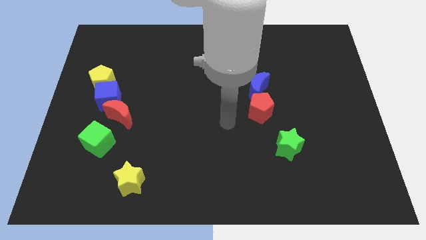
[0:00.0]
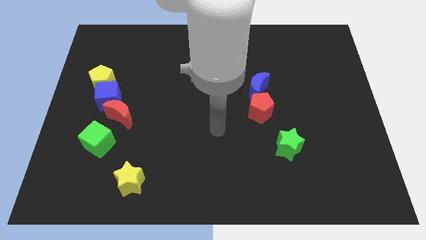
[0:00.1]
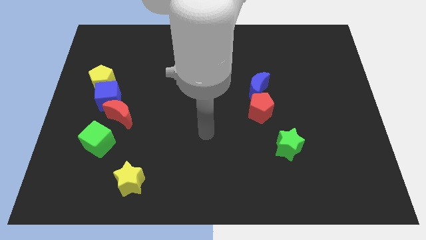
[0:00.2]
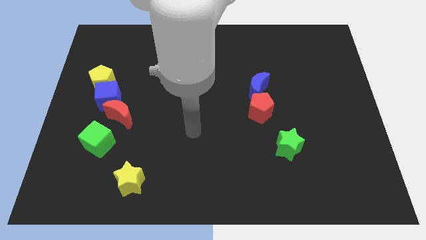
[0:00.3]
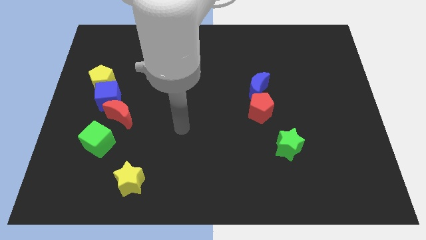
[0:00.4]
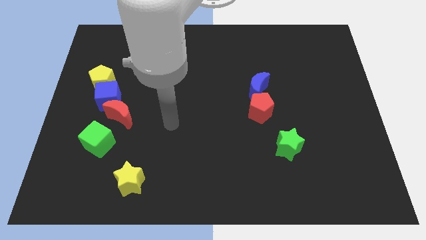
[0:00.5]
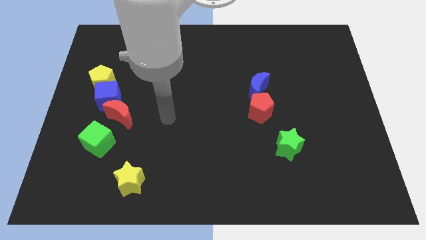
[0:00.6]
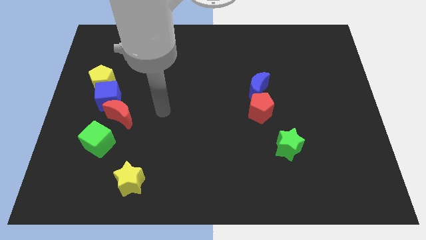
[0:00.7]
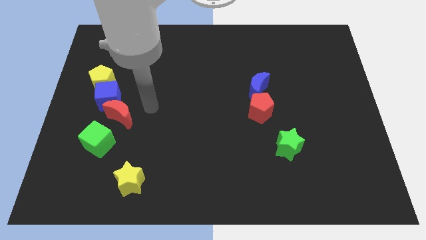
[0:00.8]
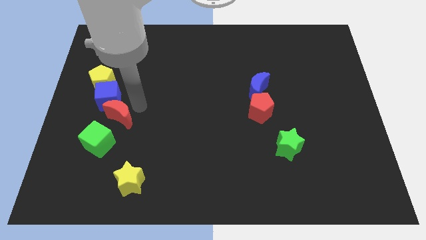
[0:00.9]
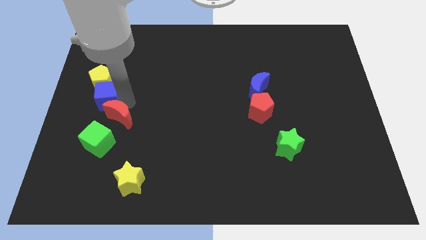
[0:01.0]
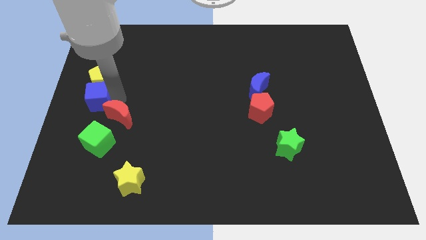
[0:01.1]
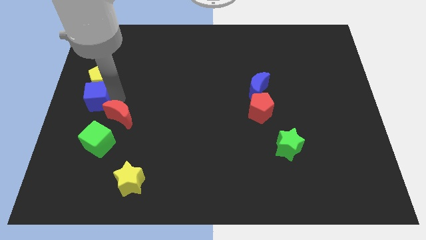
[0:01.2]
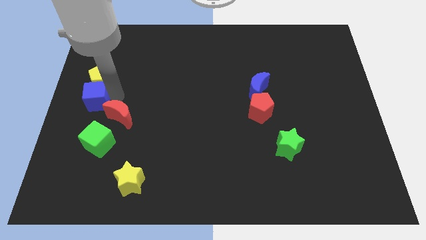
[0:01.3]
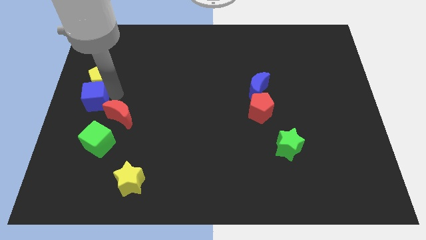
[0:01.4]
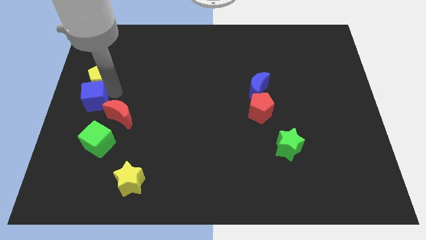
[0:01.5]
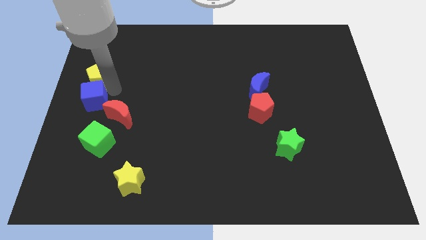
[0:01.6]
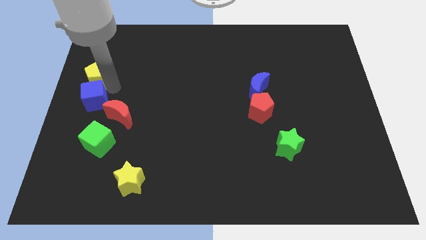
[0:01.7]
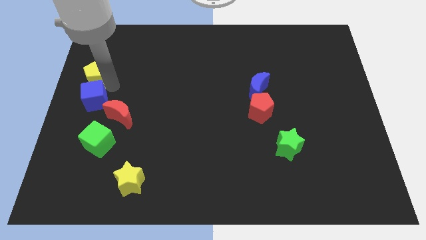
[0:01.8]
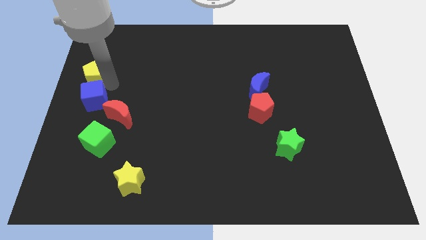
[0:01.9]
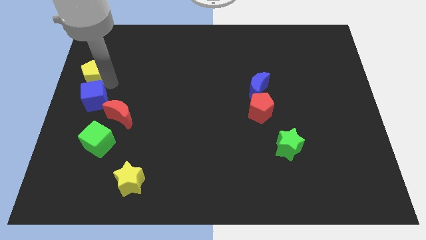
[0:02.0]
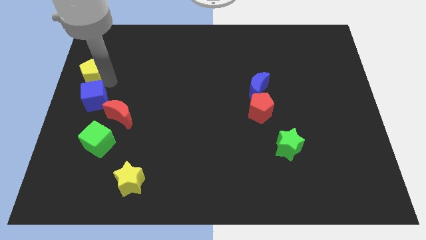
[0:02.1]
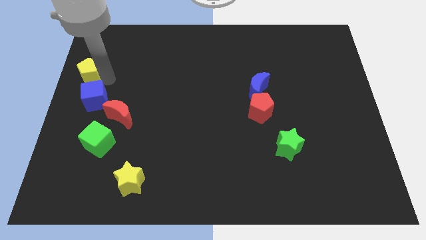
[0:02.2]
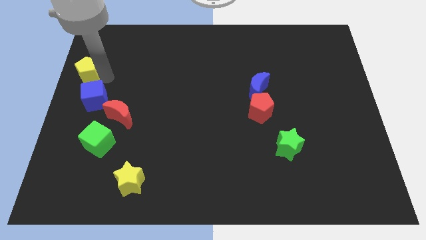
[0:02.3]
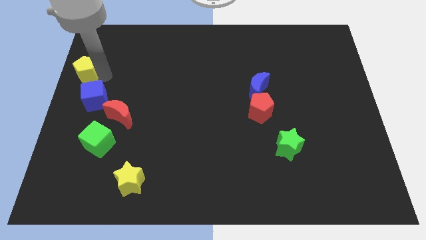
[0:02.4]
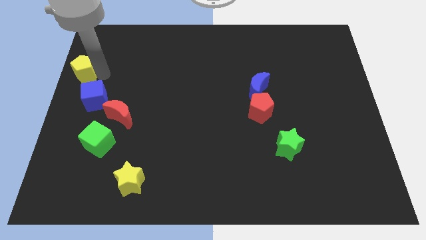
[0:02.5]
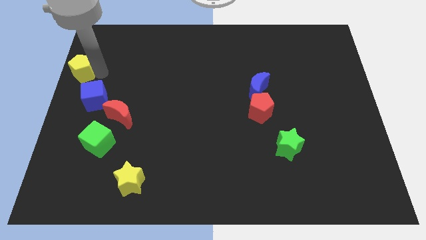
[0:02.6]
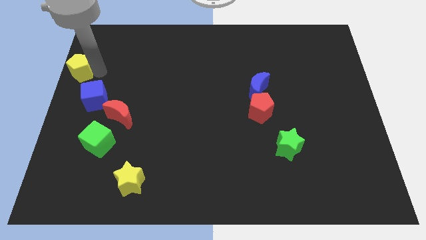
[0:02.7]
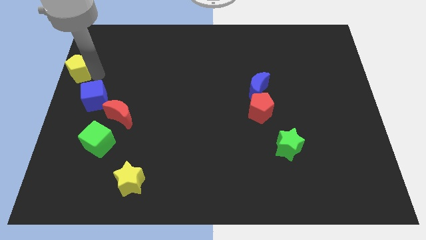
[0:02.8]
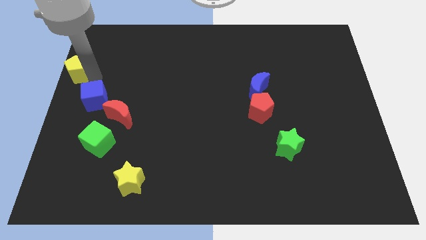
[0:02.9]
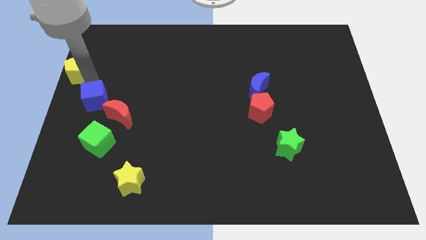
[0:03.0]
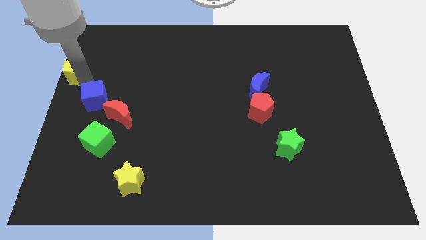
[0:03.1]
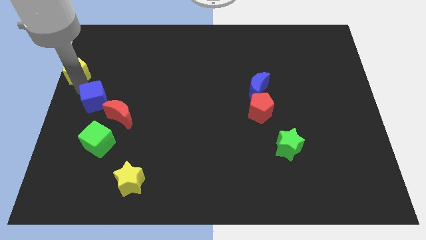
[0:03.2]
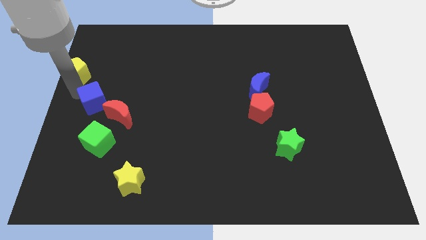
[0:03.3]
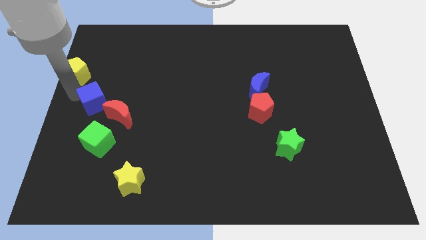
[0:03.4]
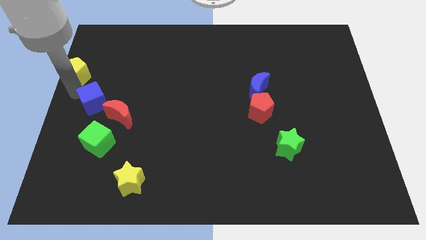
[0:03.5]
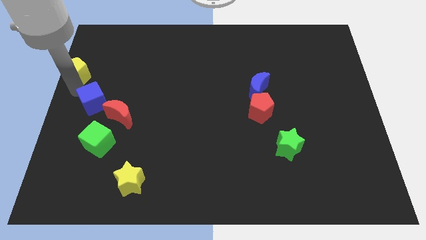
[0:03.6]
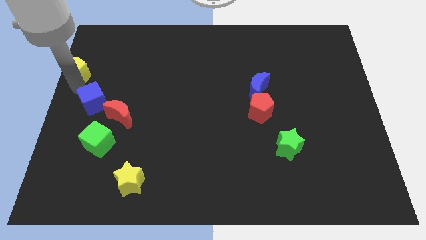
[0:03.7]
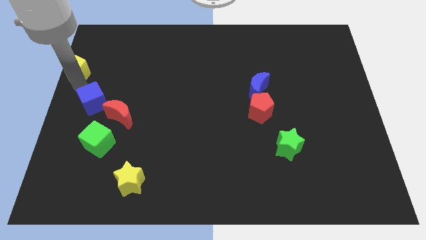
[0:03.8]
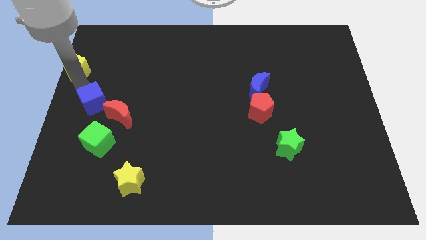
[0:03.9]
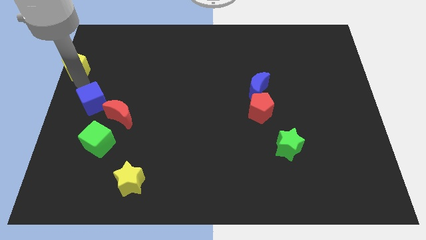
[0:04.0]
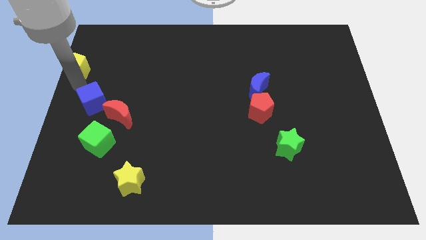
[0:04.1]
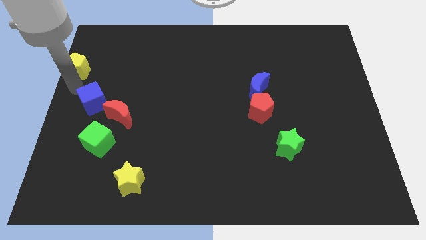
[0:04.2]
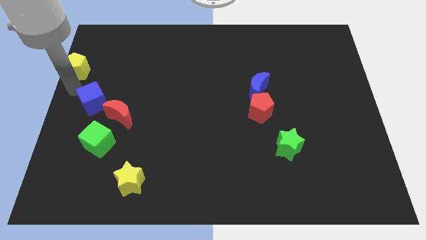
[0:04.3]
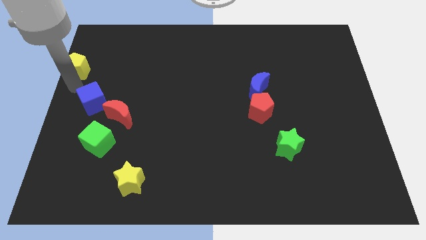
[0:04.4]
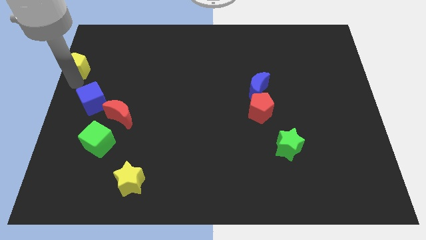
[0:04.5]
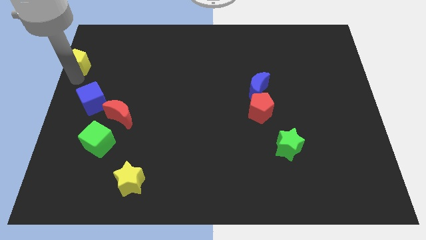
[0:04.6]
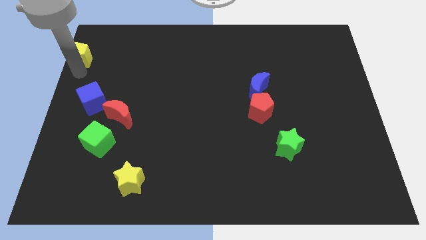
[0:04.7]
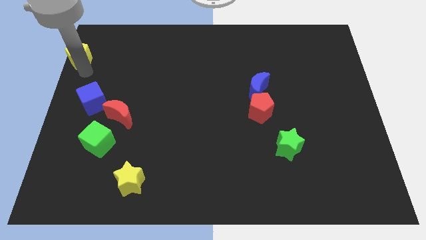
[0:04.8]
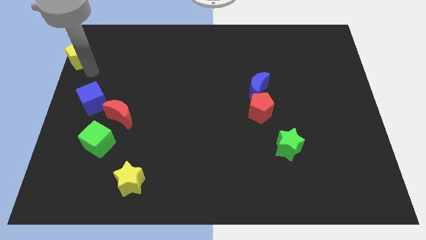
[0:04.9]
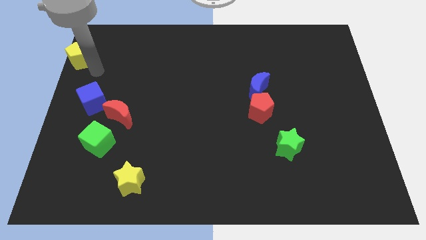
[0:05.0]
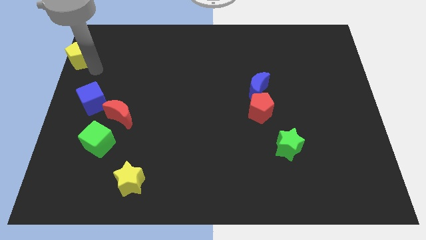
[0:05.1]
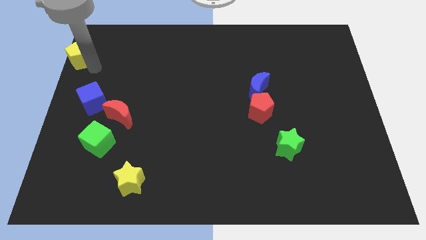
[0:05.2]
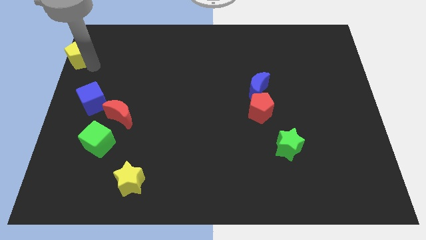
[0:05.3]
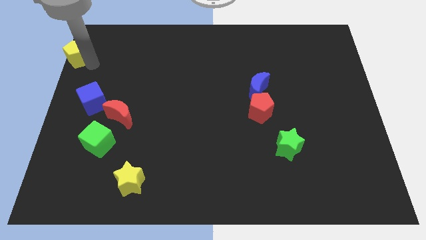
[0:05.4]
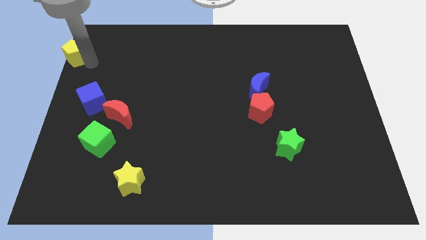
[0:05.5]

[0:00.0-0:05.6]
slide the yellow pentagon to the top left
